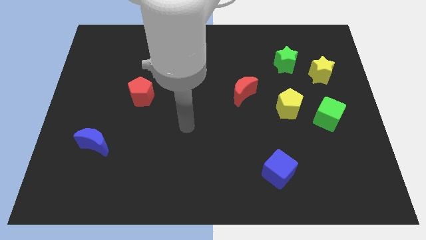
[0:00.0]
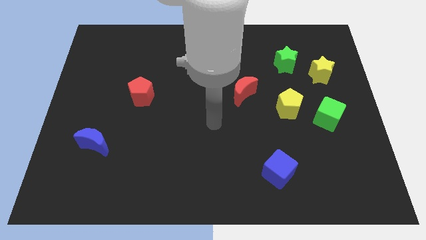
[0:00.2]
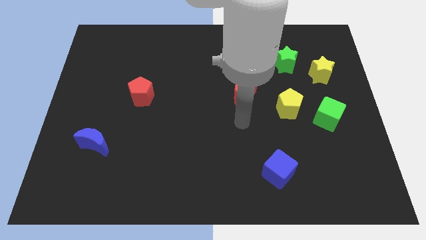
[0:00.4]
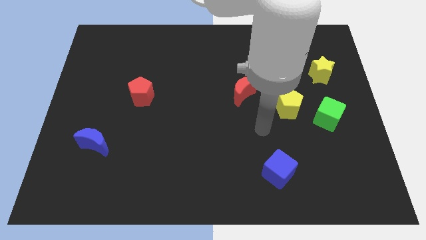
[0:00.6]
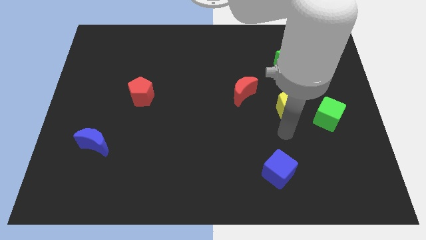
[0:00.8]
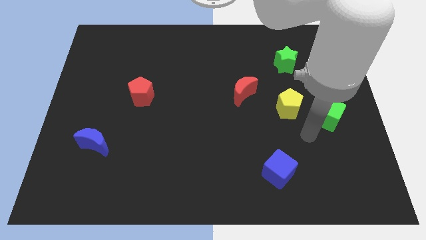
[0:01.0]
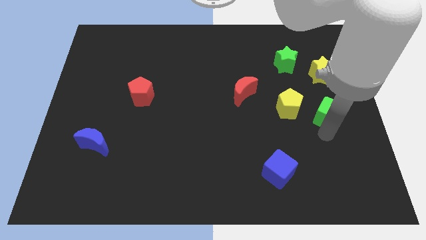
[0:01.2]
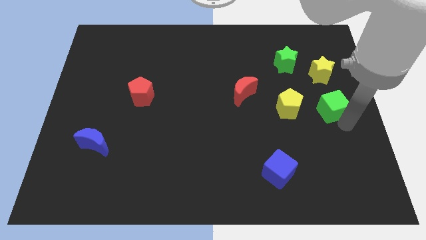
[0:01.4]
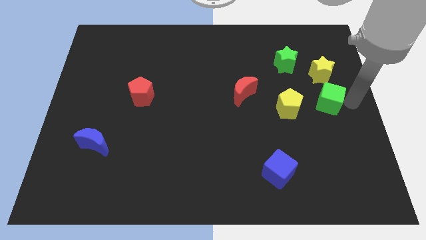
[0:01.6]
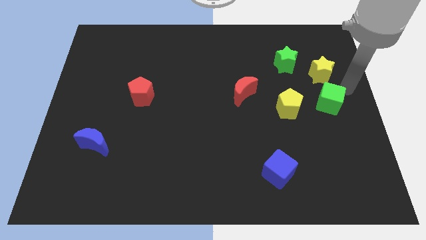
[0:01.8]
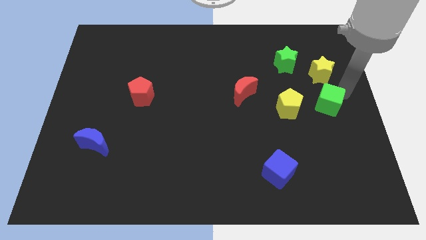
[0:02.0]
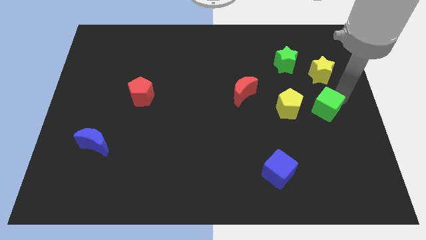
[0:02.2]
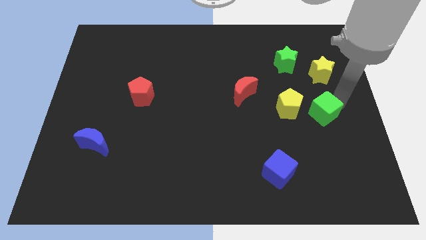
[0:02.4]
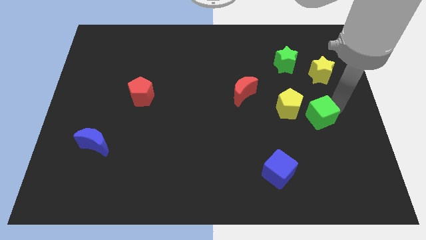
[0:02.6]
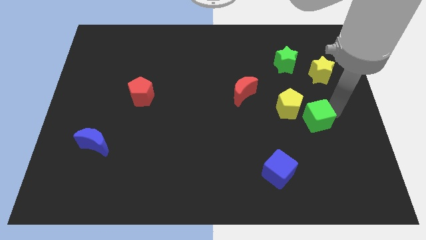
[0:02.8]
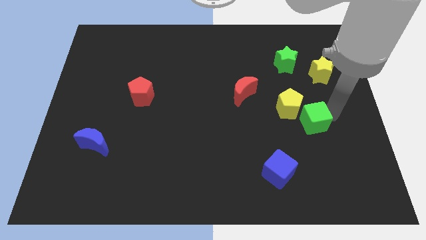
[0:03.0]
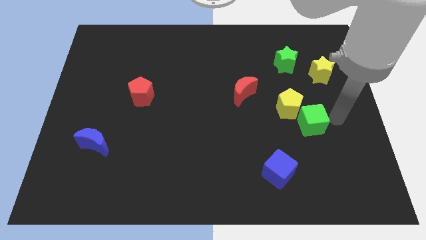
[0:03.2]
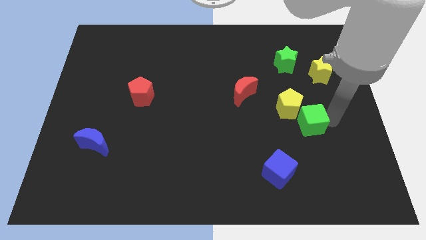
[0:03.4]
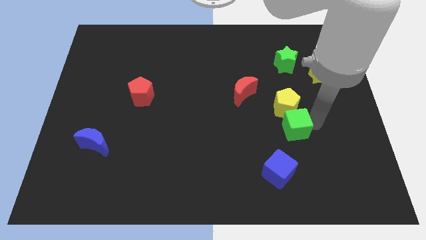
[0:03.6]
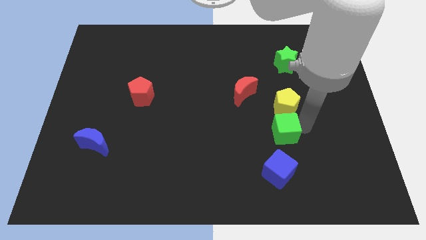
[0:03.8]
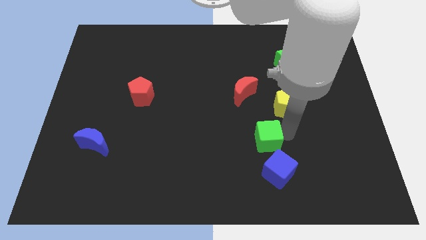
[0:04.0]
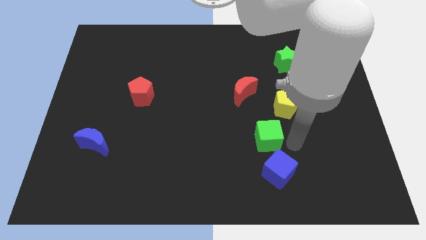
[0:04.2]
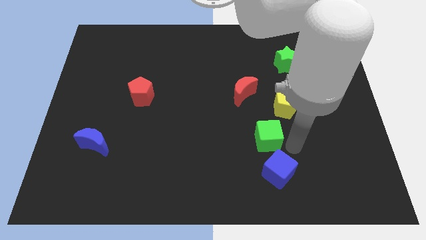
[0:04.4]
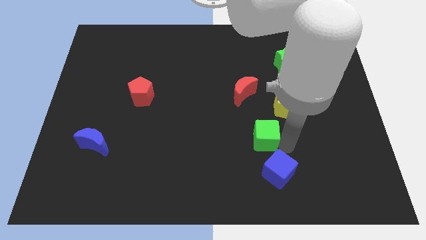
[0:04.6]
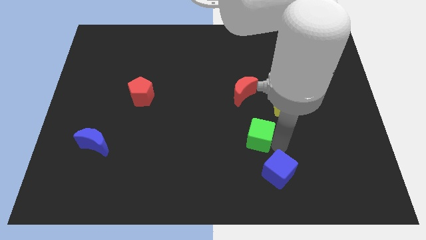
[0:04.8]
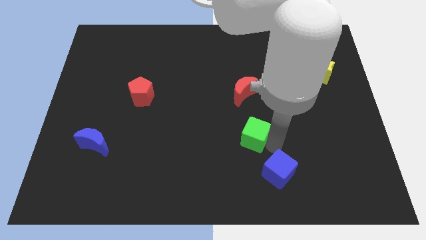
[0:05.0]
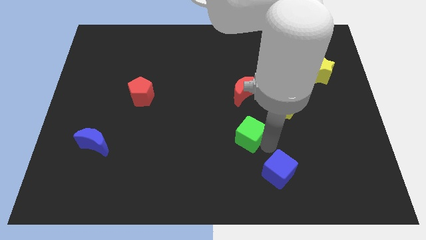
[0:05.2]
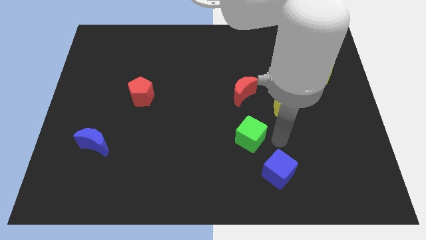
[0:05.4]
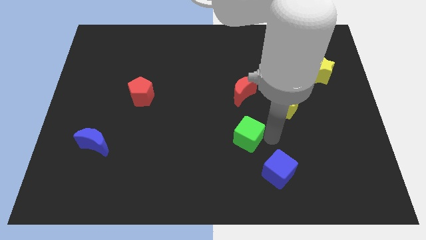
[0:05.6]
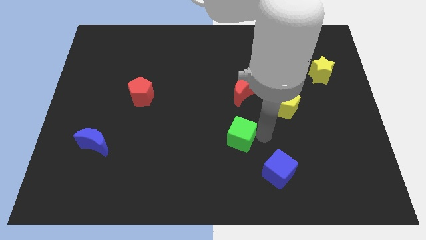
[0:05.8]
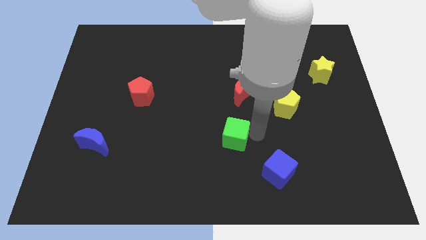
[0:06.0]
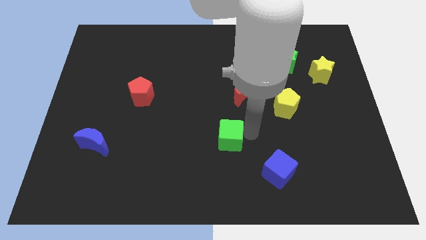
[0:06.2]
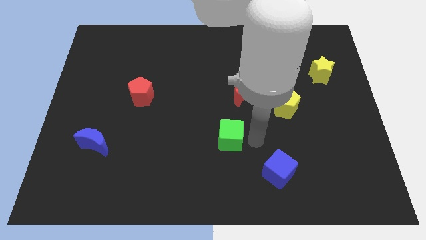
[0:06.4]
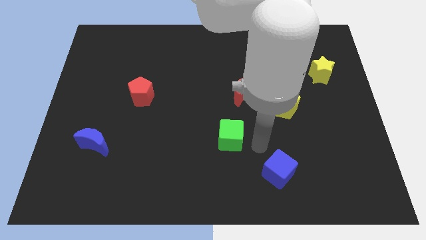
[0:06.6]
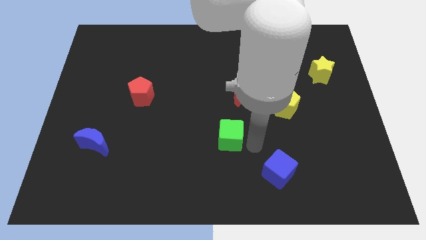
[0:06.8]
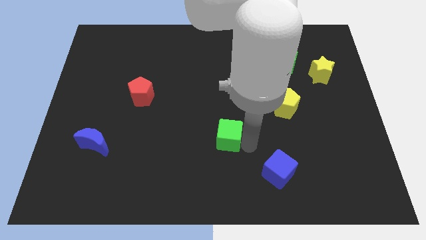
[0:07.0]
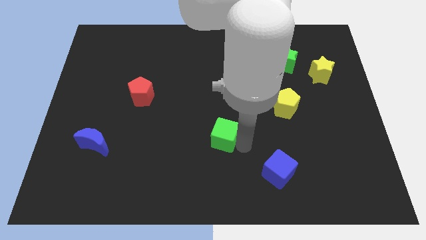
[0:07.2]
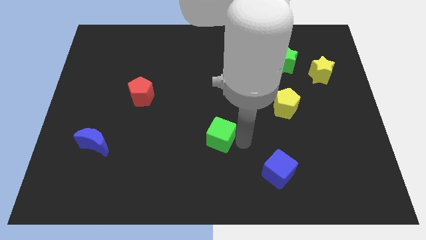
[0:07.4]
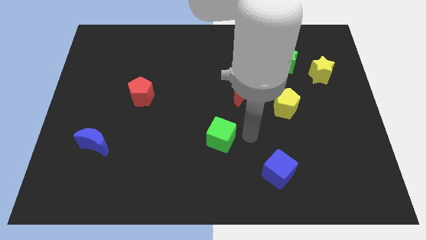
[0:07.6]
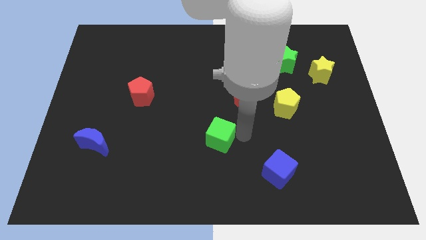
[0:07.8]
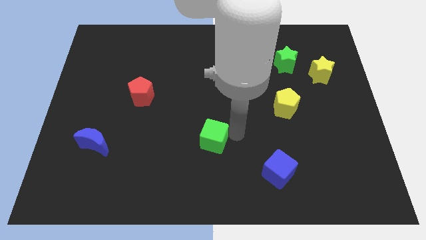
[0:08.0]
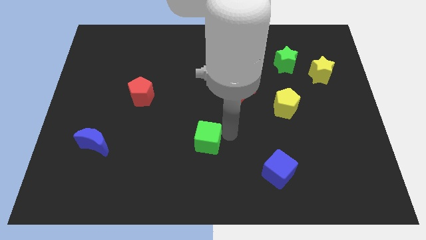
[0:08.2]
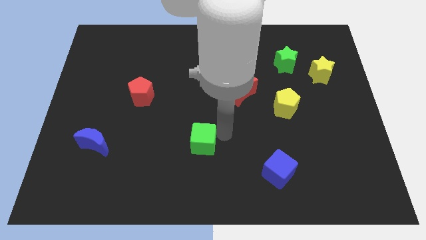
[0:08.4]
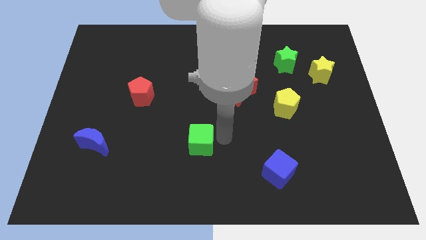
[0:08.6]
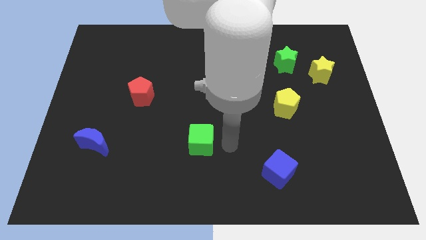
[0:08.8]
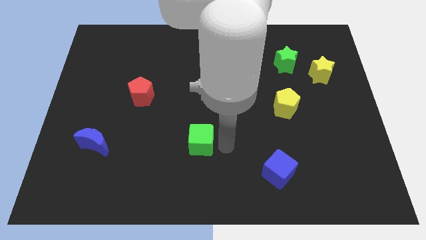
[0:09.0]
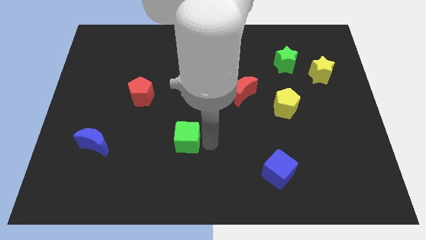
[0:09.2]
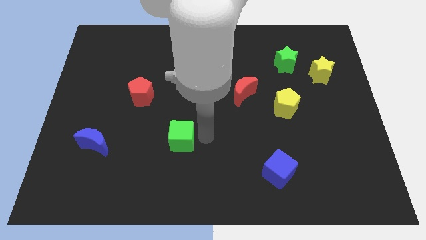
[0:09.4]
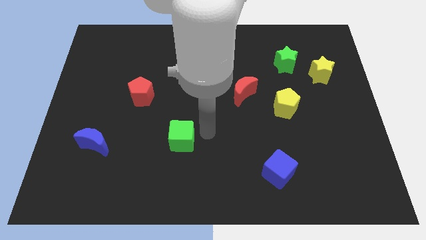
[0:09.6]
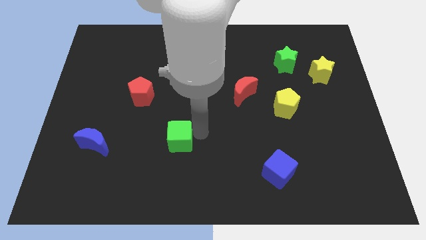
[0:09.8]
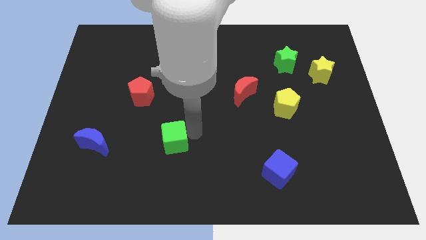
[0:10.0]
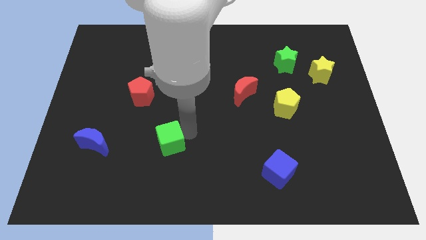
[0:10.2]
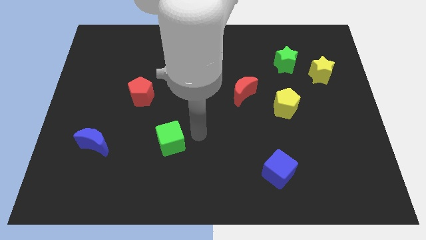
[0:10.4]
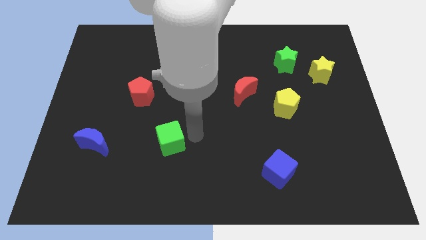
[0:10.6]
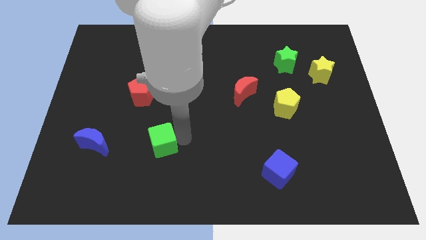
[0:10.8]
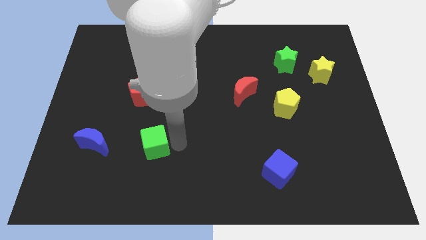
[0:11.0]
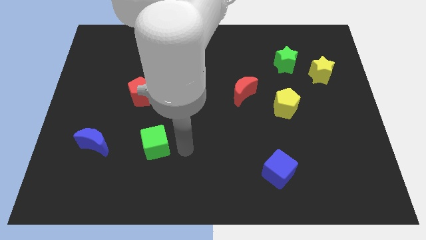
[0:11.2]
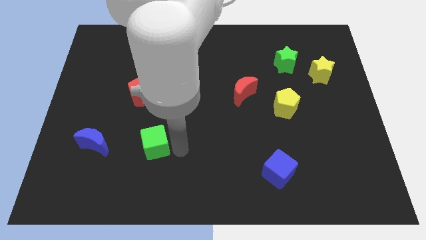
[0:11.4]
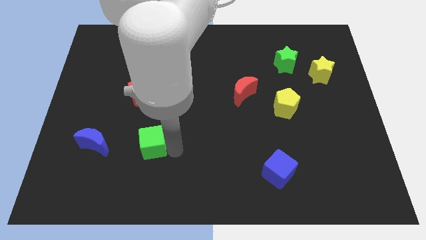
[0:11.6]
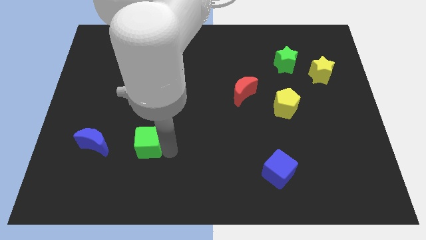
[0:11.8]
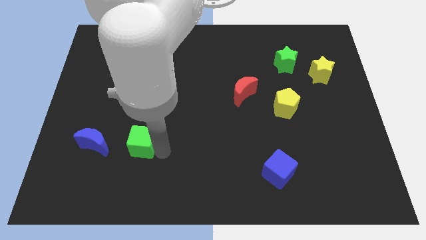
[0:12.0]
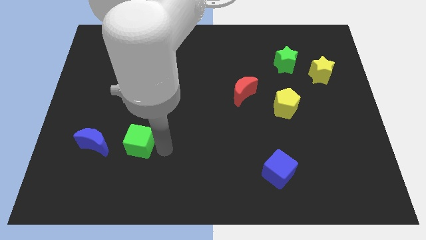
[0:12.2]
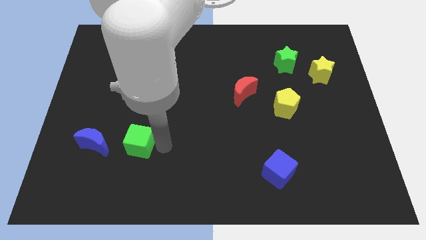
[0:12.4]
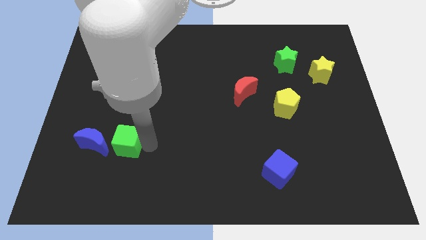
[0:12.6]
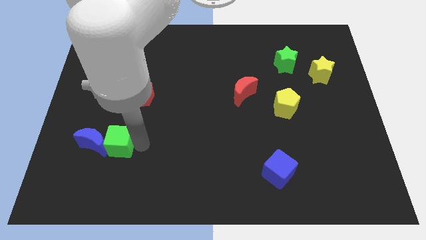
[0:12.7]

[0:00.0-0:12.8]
slide the green cube to the blue moon
